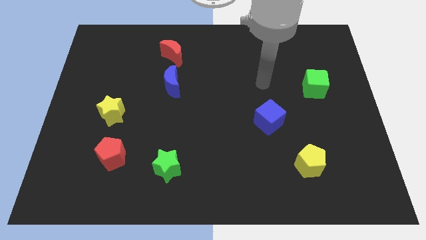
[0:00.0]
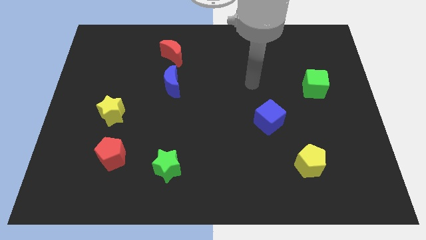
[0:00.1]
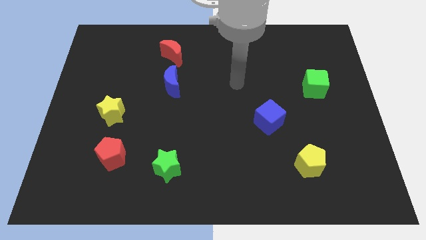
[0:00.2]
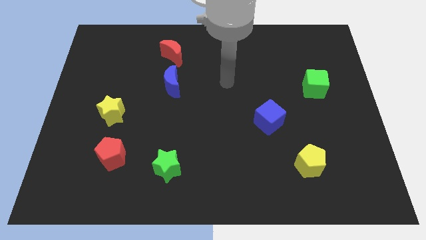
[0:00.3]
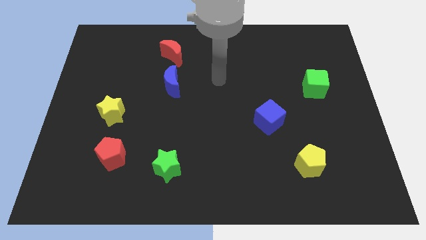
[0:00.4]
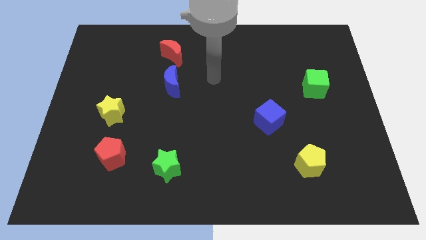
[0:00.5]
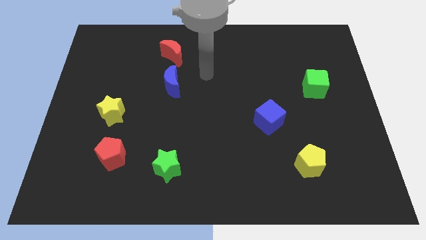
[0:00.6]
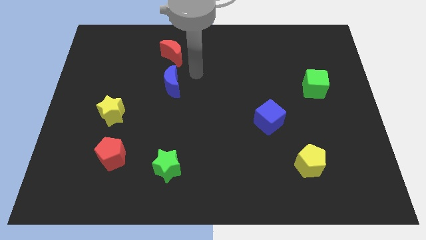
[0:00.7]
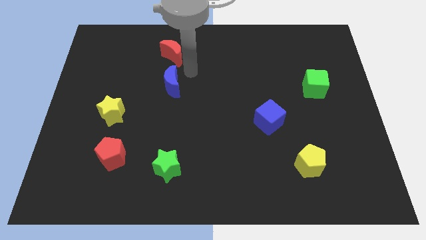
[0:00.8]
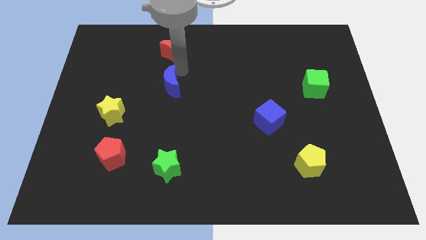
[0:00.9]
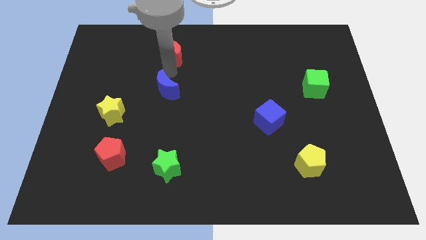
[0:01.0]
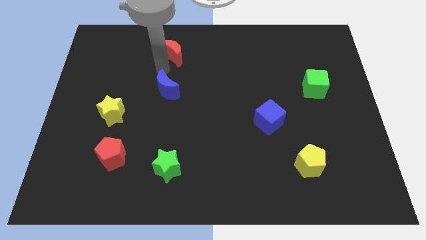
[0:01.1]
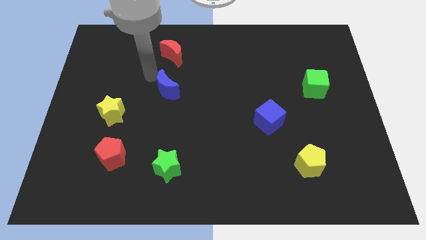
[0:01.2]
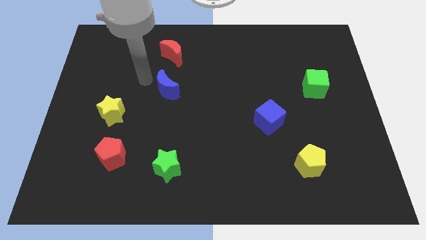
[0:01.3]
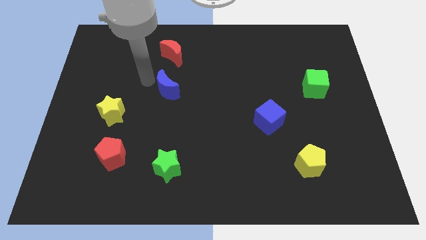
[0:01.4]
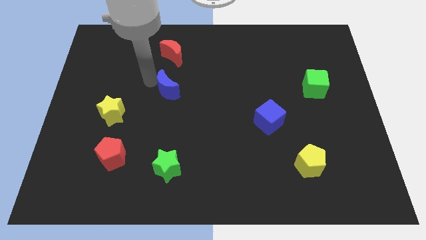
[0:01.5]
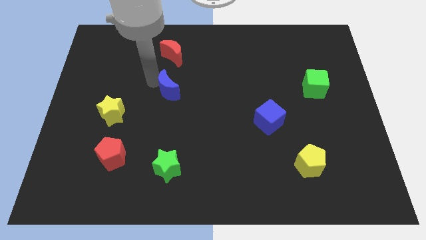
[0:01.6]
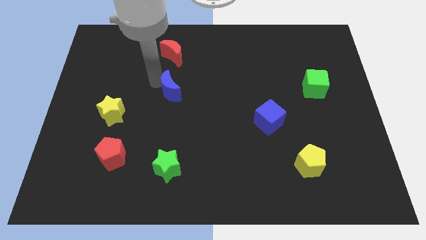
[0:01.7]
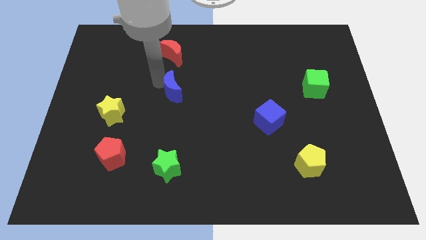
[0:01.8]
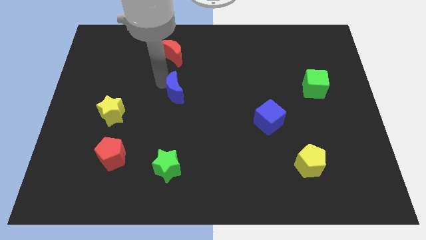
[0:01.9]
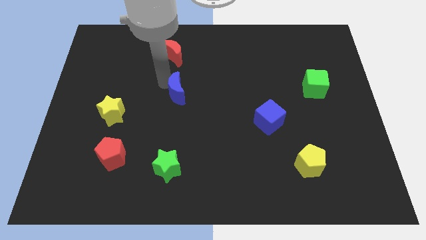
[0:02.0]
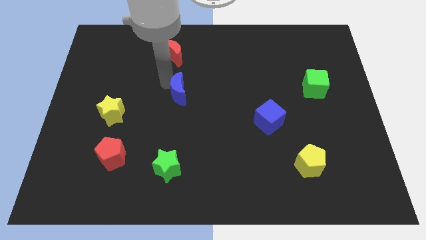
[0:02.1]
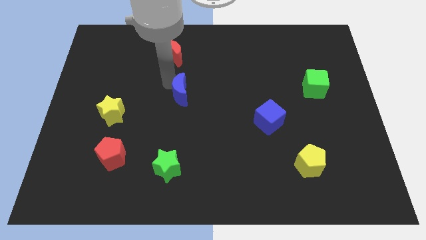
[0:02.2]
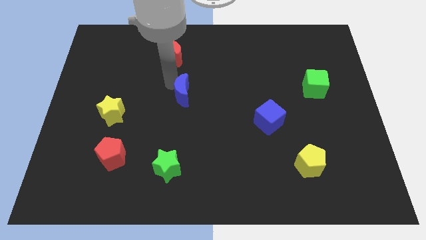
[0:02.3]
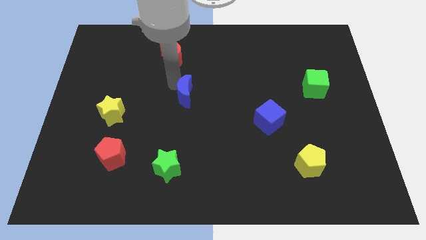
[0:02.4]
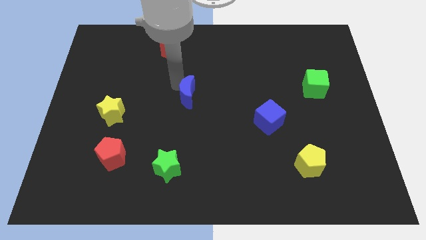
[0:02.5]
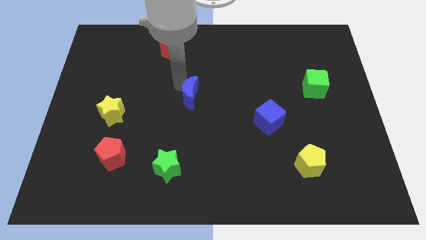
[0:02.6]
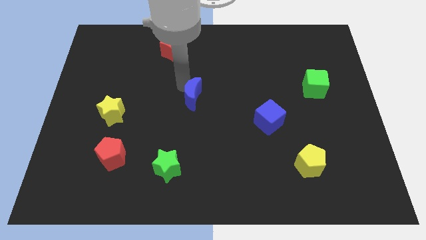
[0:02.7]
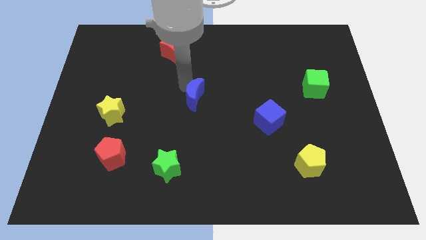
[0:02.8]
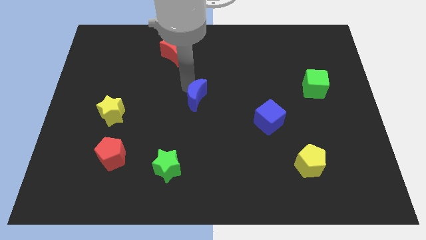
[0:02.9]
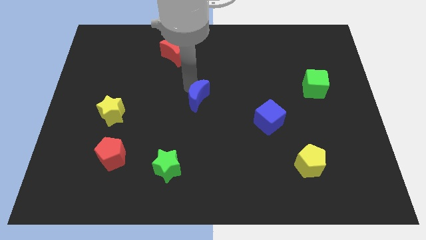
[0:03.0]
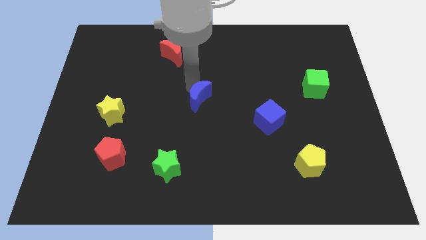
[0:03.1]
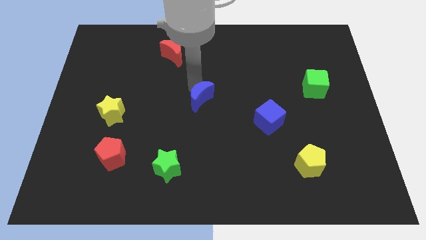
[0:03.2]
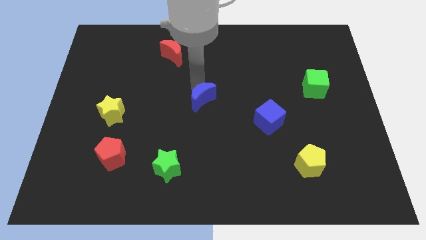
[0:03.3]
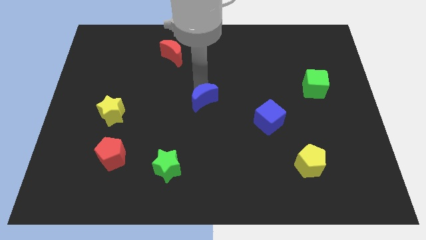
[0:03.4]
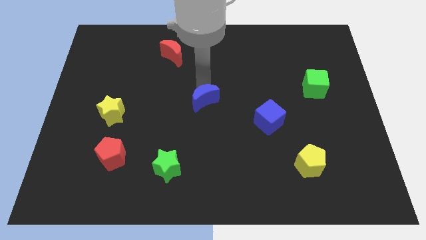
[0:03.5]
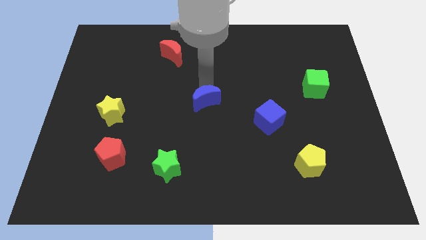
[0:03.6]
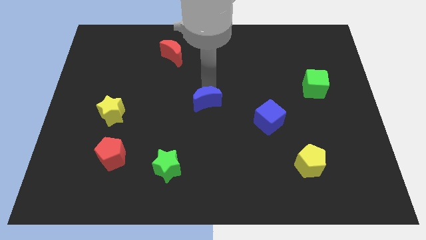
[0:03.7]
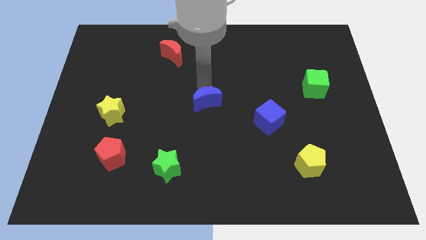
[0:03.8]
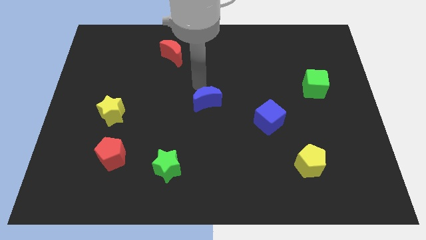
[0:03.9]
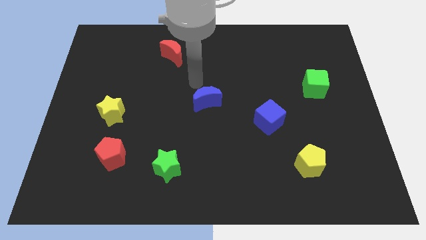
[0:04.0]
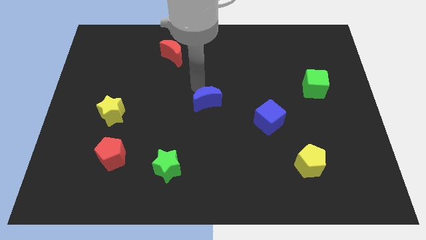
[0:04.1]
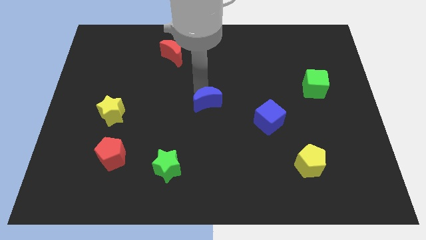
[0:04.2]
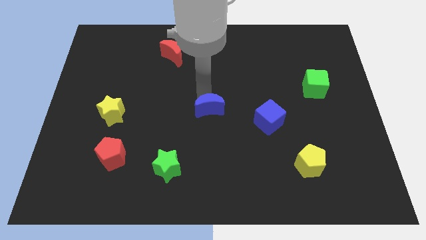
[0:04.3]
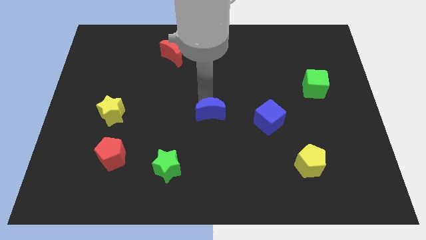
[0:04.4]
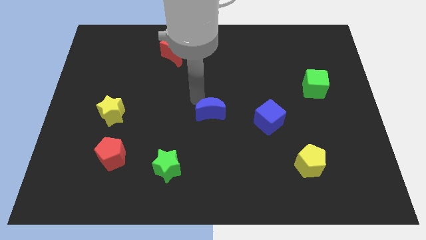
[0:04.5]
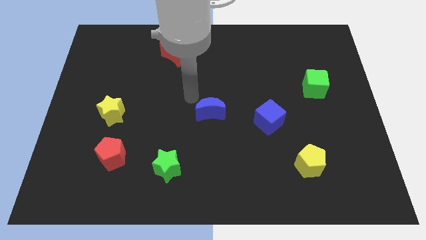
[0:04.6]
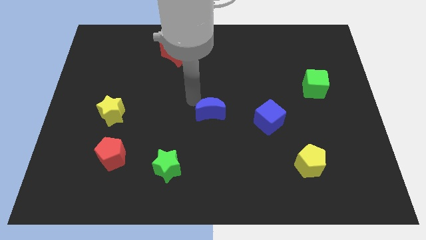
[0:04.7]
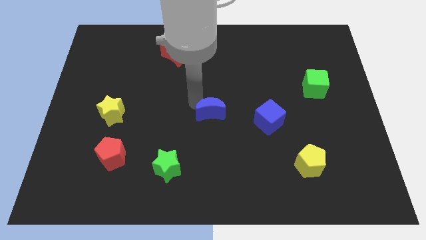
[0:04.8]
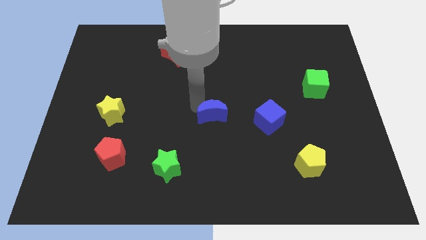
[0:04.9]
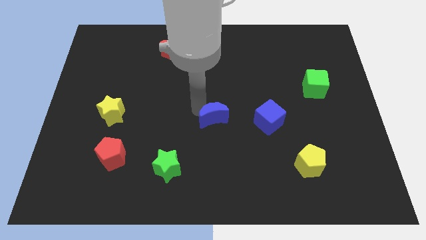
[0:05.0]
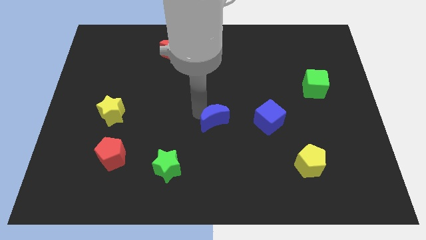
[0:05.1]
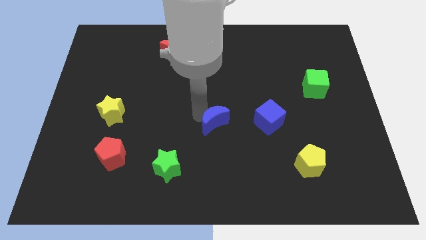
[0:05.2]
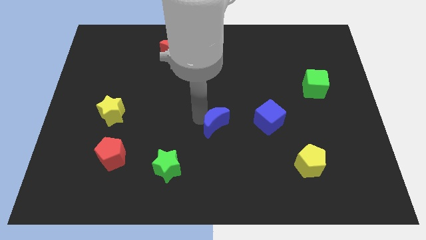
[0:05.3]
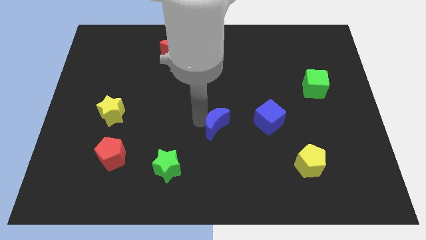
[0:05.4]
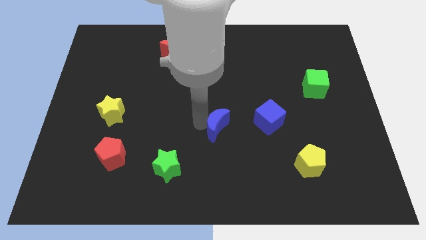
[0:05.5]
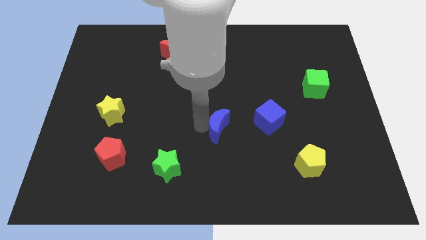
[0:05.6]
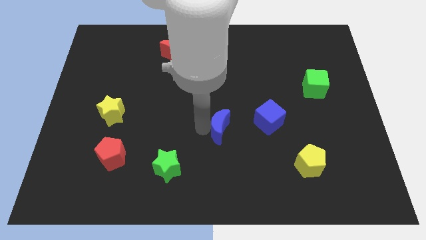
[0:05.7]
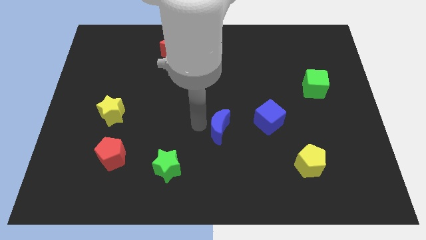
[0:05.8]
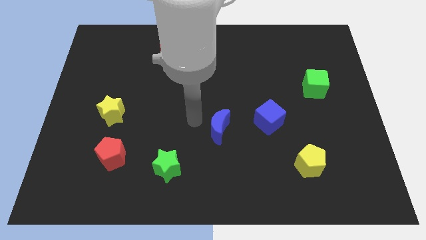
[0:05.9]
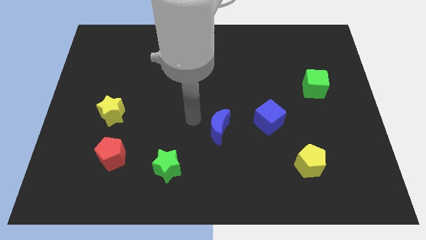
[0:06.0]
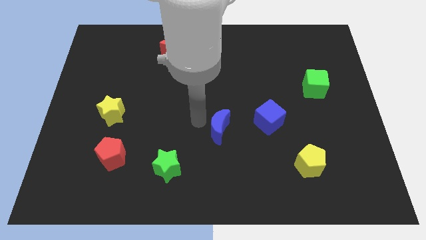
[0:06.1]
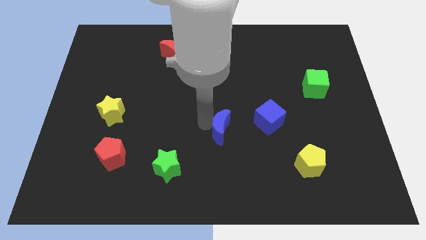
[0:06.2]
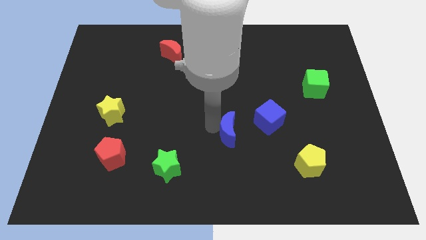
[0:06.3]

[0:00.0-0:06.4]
put the blue moon diagonally down and to the left of the blue cube

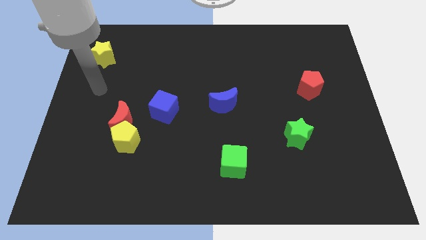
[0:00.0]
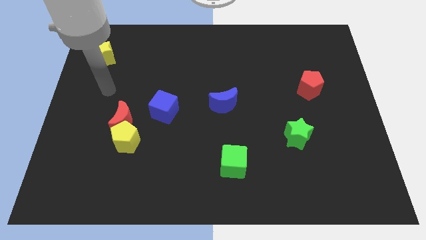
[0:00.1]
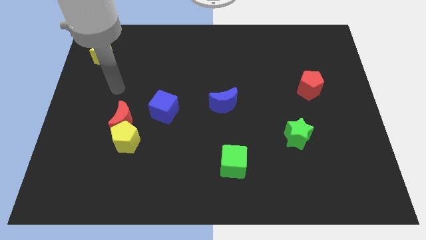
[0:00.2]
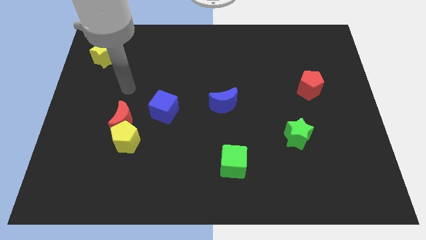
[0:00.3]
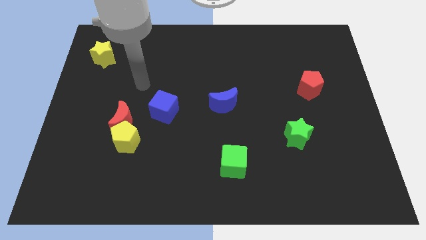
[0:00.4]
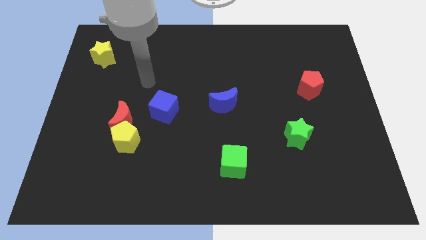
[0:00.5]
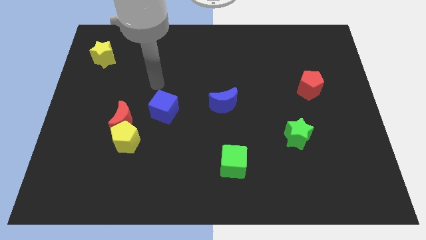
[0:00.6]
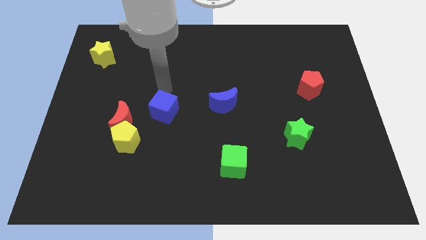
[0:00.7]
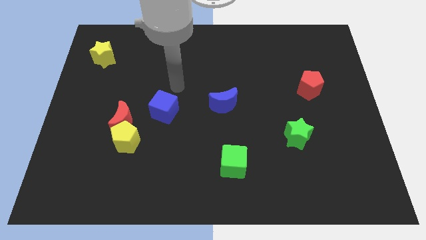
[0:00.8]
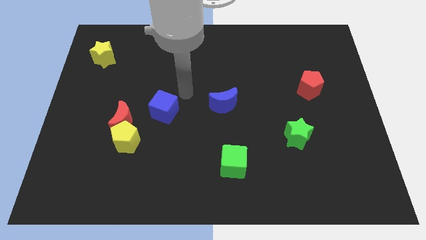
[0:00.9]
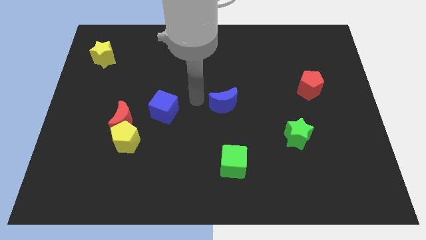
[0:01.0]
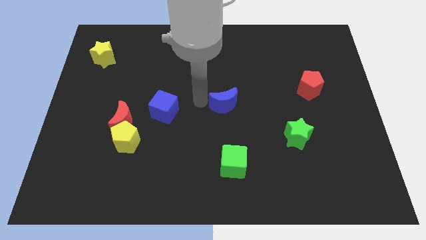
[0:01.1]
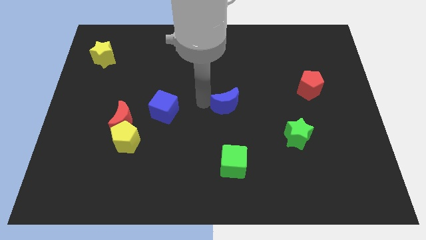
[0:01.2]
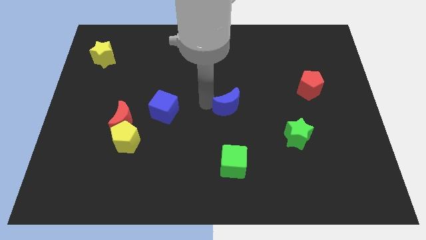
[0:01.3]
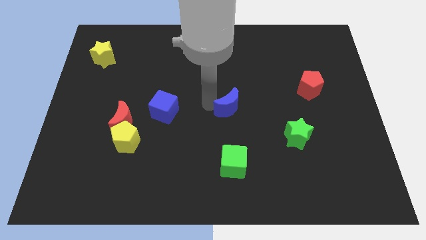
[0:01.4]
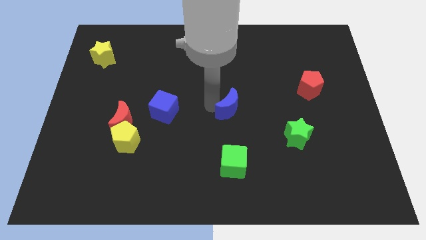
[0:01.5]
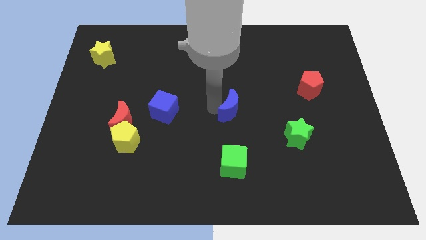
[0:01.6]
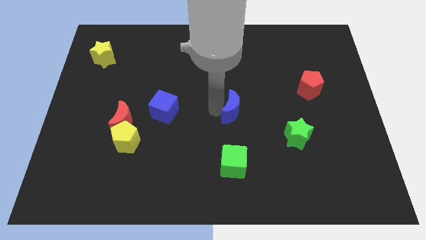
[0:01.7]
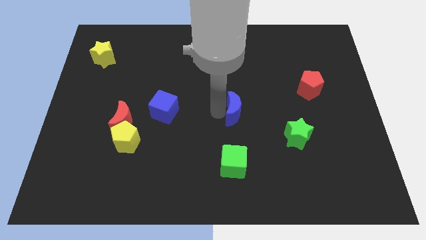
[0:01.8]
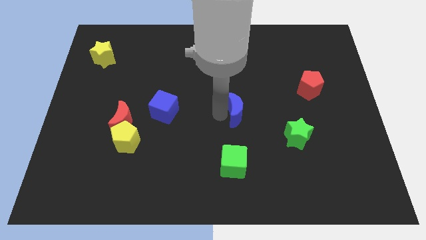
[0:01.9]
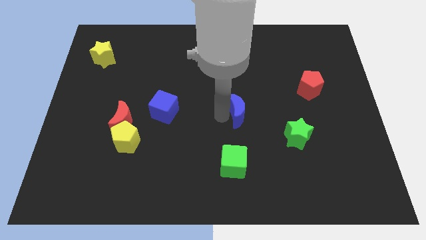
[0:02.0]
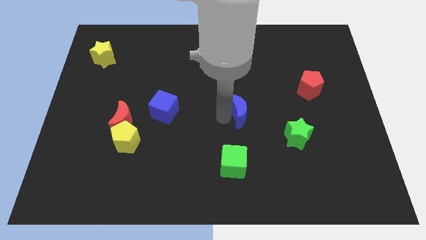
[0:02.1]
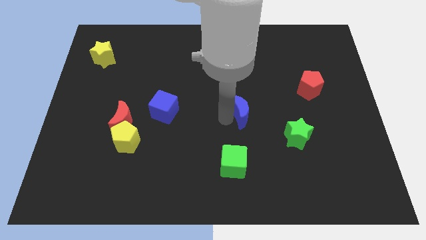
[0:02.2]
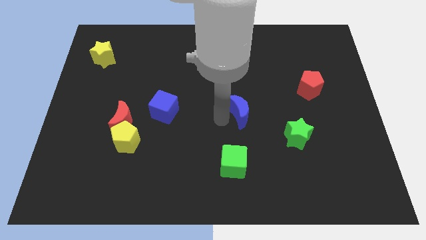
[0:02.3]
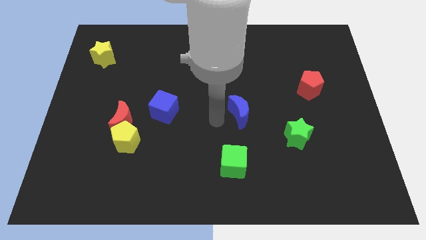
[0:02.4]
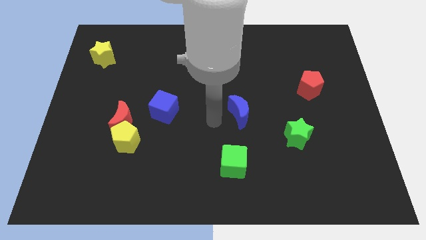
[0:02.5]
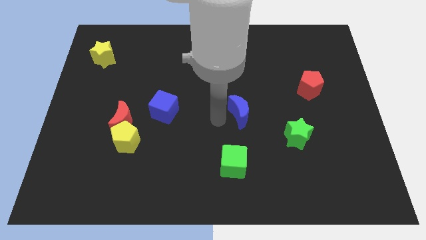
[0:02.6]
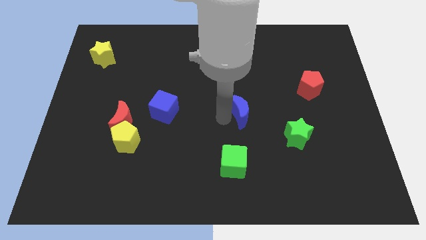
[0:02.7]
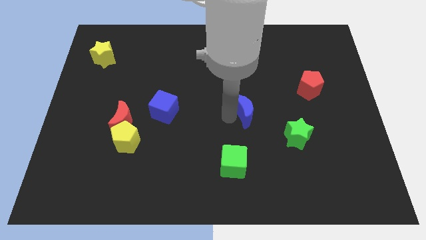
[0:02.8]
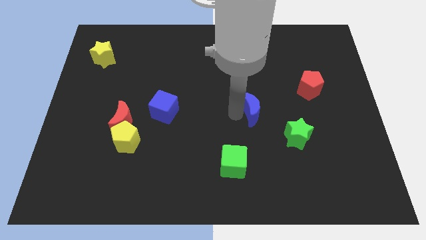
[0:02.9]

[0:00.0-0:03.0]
put the blue moon diagonally up and to the left of the green star
